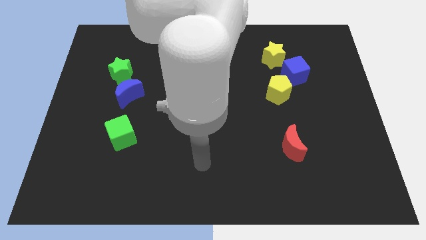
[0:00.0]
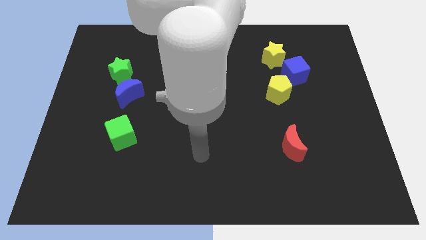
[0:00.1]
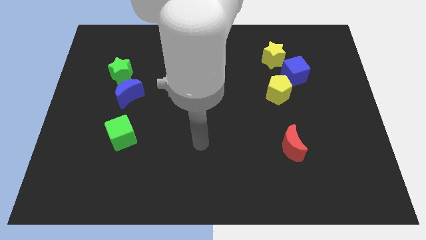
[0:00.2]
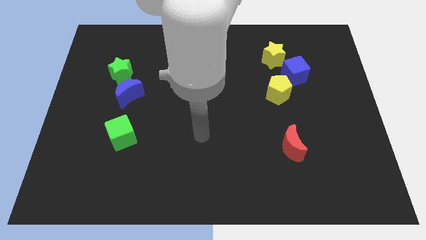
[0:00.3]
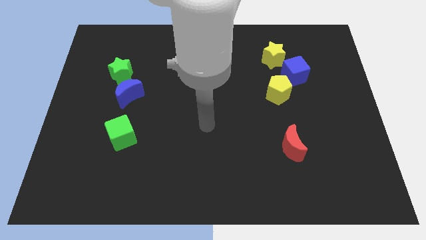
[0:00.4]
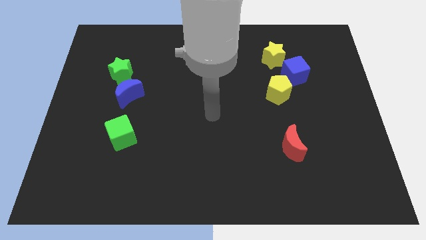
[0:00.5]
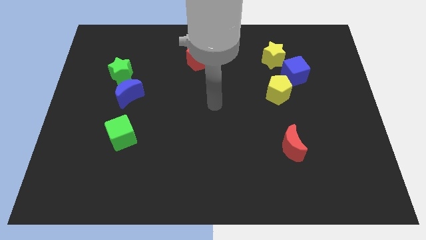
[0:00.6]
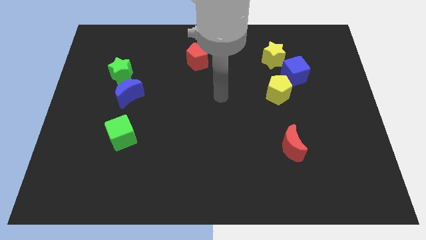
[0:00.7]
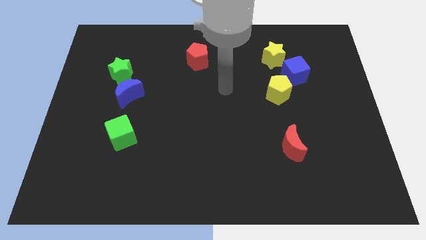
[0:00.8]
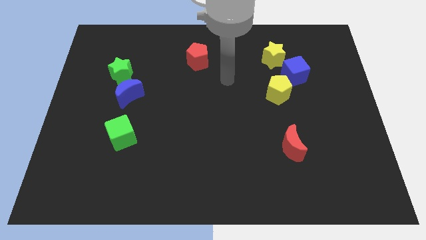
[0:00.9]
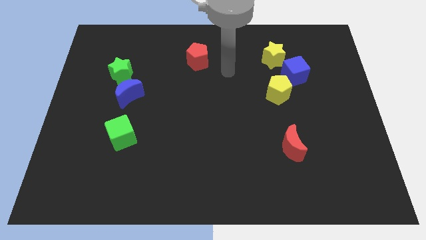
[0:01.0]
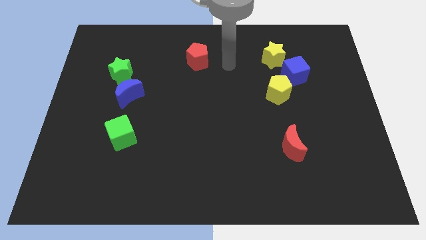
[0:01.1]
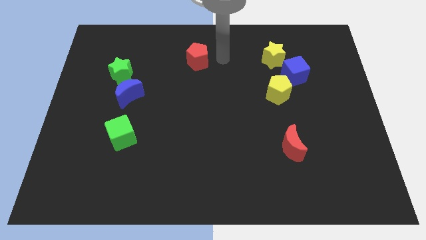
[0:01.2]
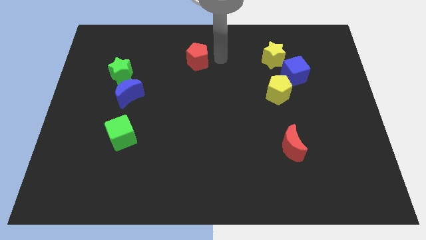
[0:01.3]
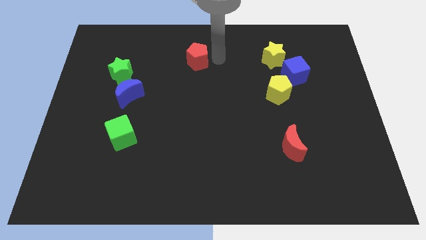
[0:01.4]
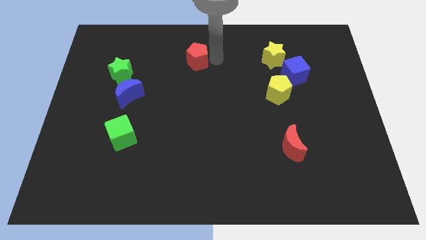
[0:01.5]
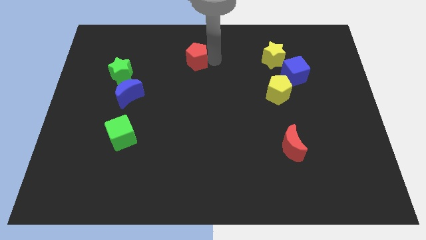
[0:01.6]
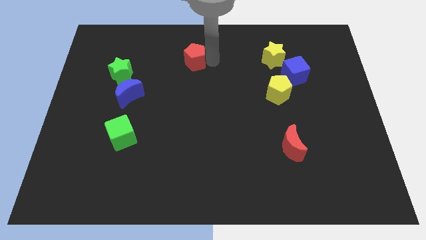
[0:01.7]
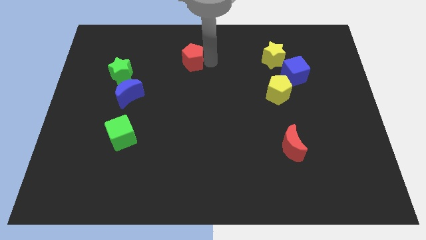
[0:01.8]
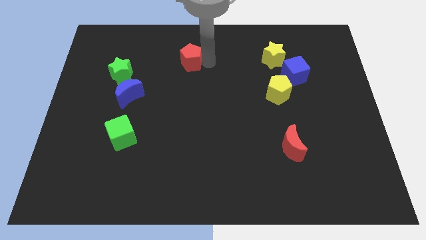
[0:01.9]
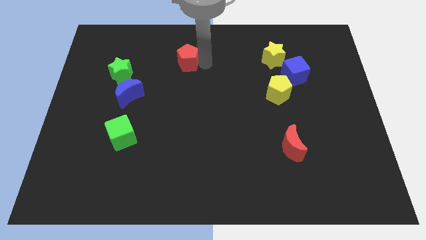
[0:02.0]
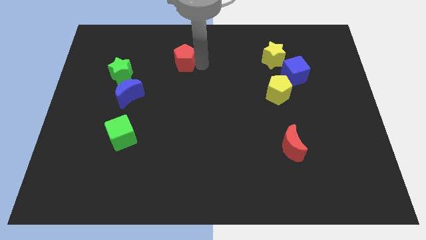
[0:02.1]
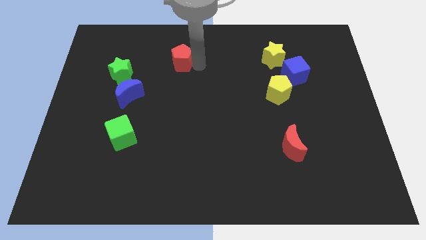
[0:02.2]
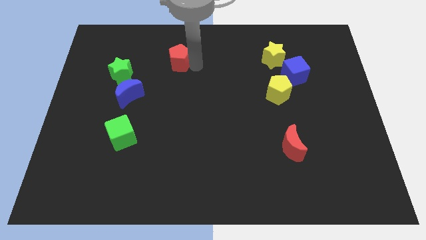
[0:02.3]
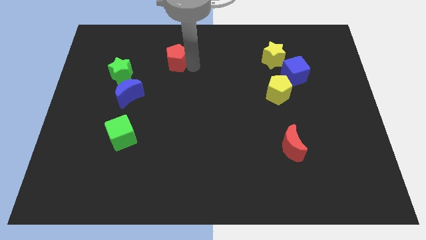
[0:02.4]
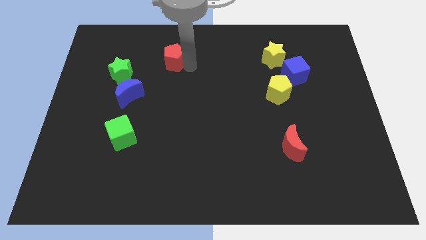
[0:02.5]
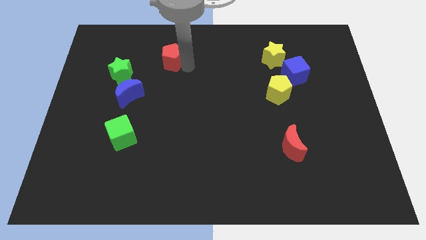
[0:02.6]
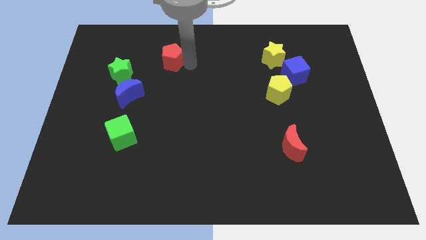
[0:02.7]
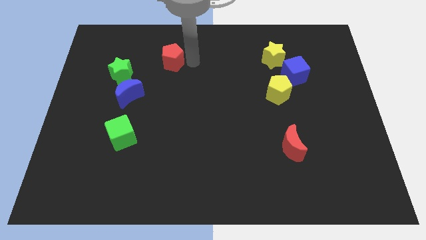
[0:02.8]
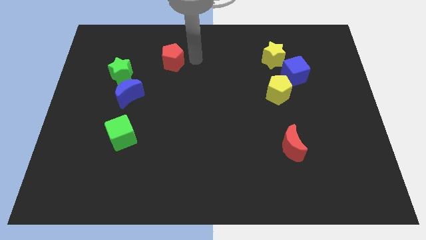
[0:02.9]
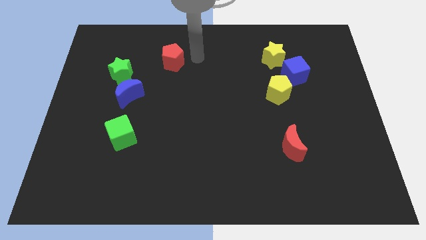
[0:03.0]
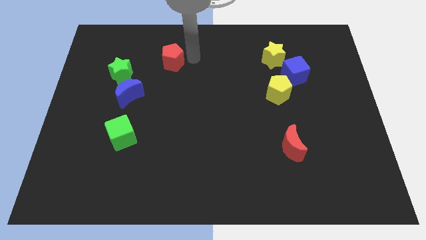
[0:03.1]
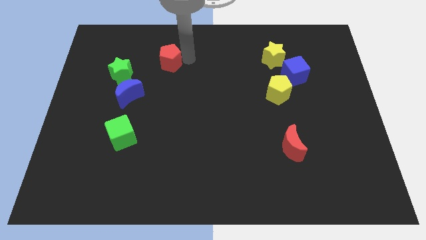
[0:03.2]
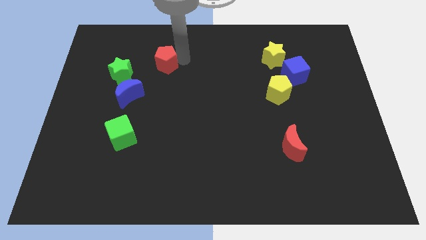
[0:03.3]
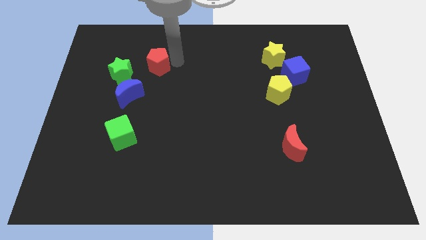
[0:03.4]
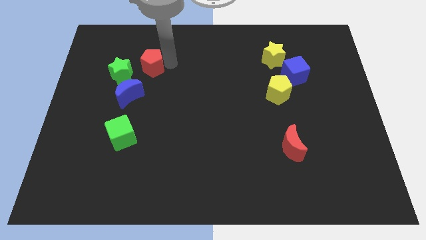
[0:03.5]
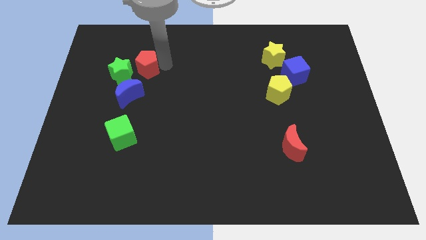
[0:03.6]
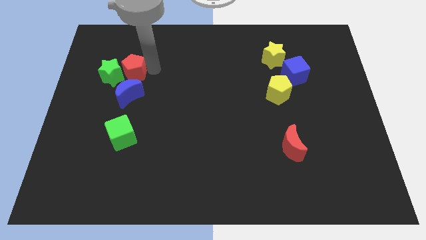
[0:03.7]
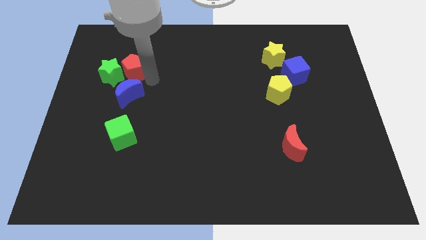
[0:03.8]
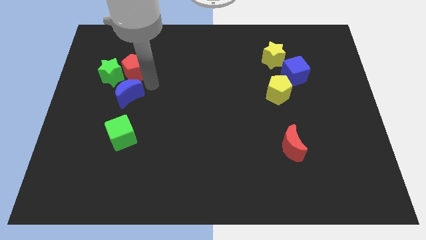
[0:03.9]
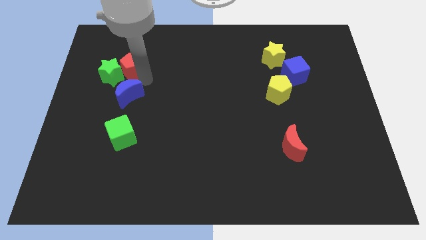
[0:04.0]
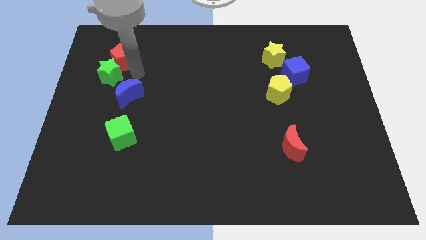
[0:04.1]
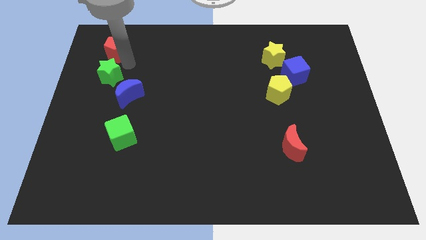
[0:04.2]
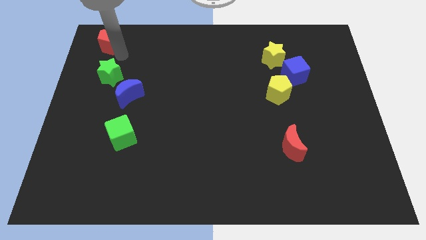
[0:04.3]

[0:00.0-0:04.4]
slide the red pentagon to the top left of the board

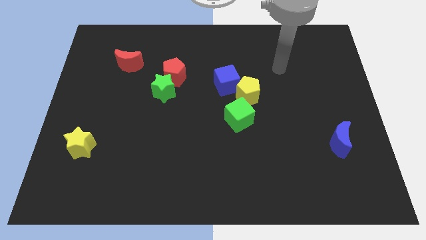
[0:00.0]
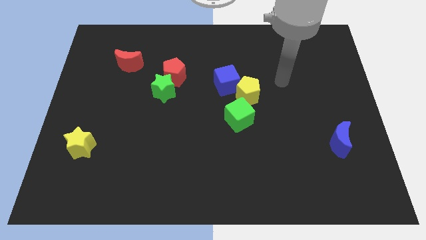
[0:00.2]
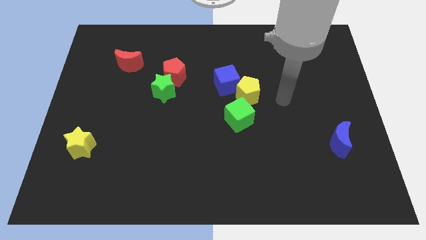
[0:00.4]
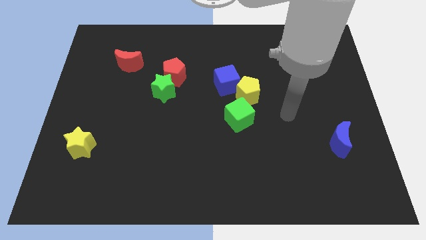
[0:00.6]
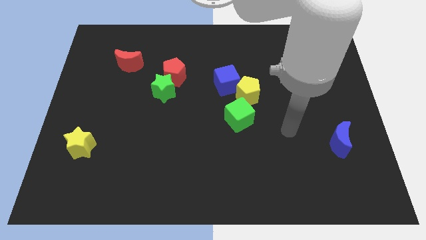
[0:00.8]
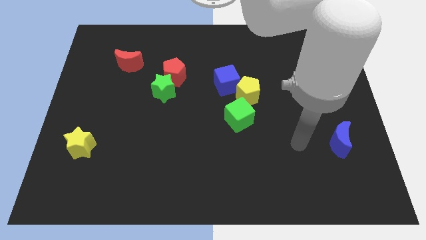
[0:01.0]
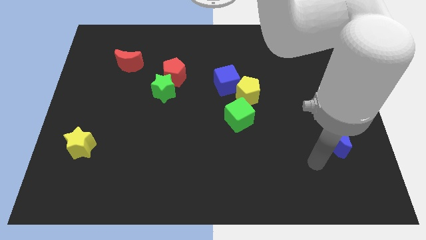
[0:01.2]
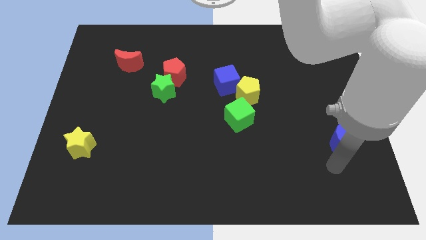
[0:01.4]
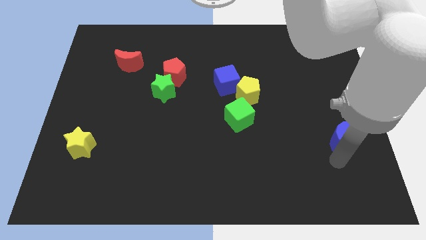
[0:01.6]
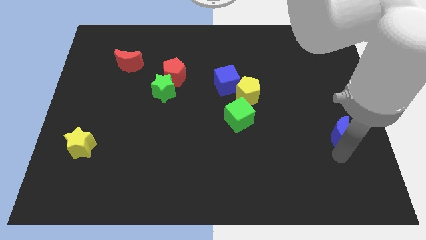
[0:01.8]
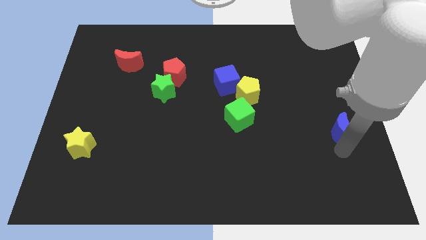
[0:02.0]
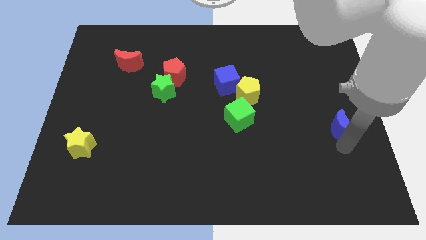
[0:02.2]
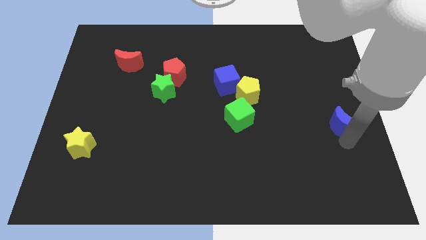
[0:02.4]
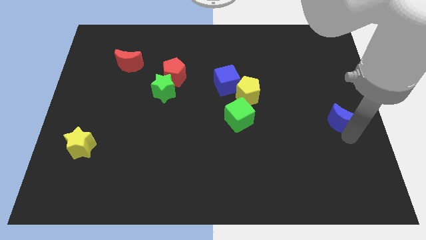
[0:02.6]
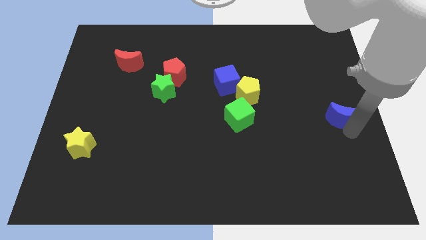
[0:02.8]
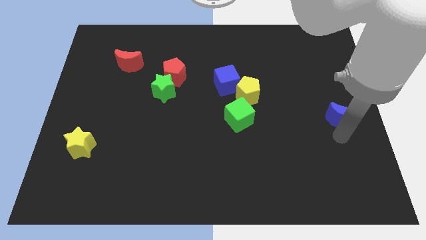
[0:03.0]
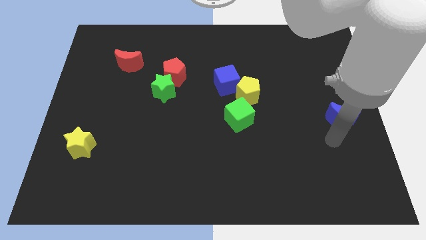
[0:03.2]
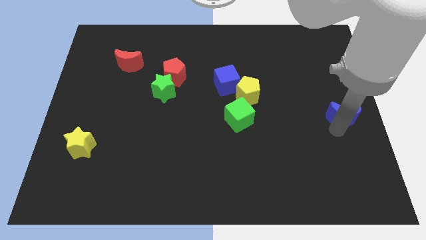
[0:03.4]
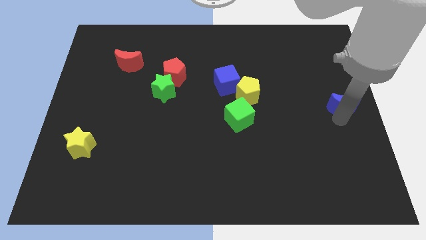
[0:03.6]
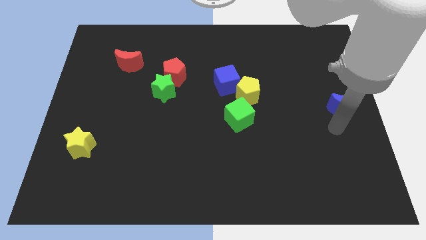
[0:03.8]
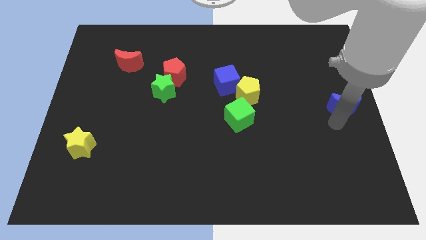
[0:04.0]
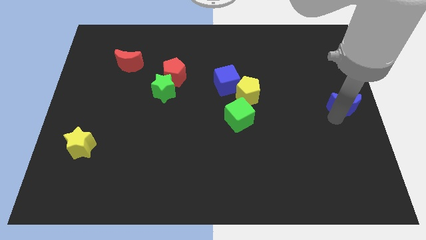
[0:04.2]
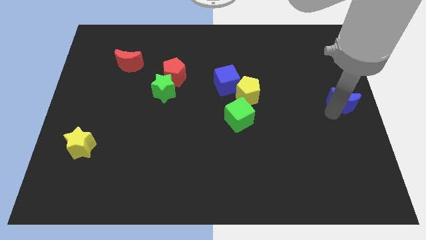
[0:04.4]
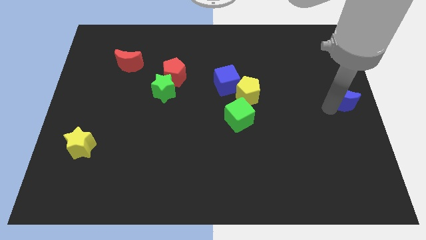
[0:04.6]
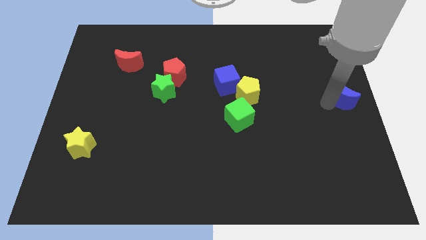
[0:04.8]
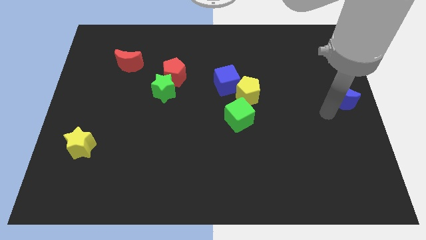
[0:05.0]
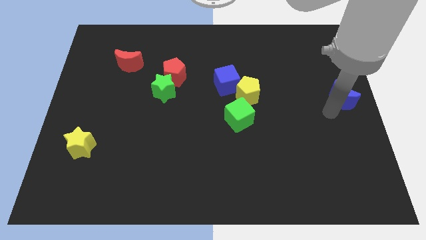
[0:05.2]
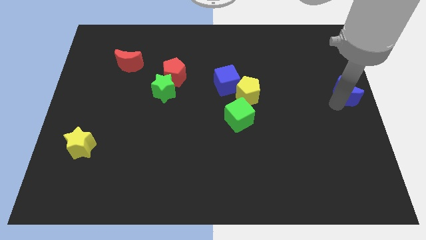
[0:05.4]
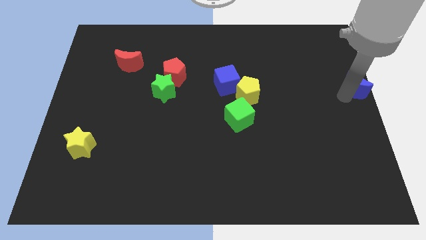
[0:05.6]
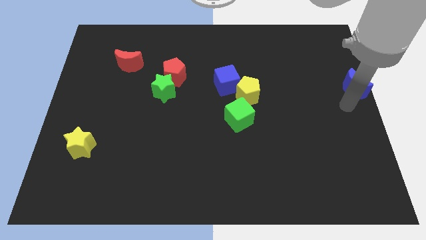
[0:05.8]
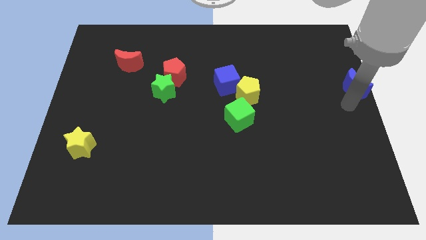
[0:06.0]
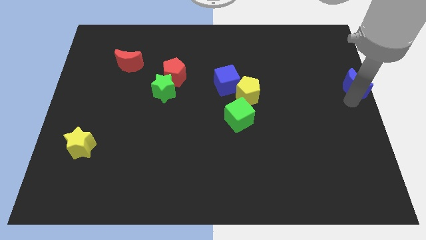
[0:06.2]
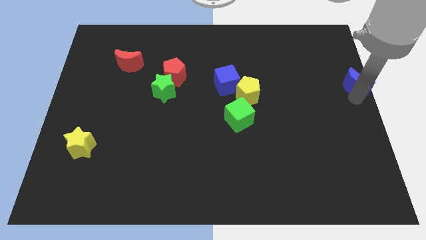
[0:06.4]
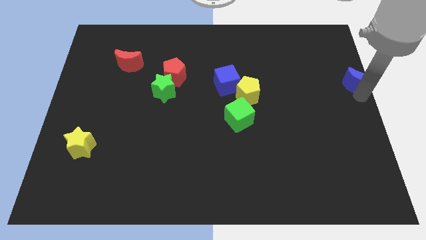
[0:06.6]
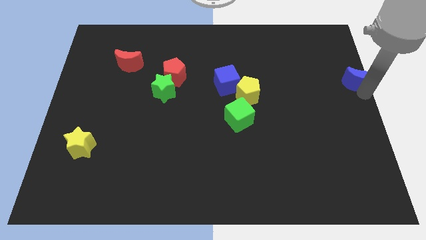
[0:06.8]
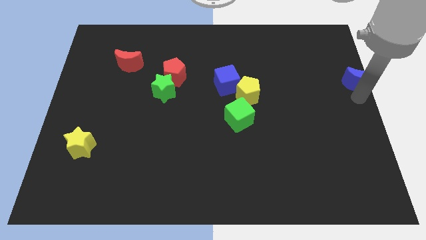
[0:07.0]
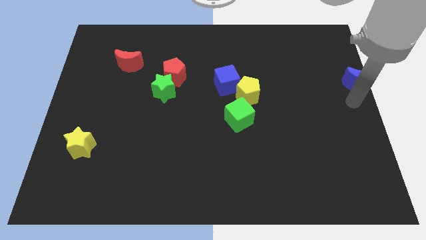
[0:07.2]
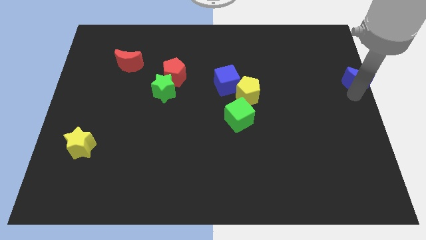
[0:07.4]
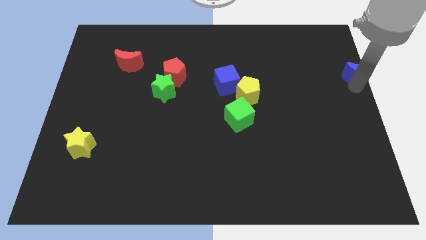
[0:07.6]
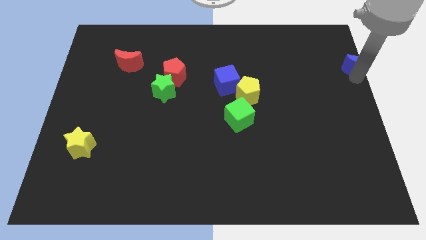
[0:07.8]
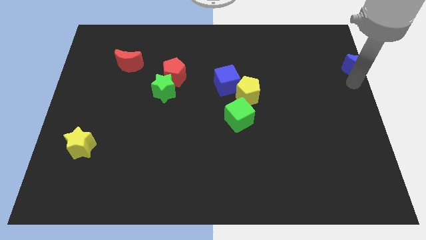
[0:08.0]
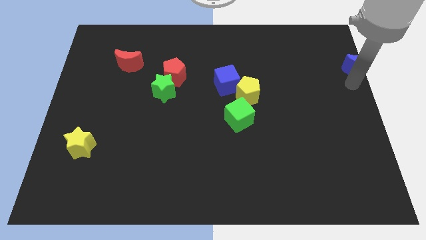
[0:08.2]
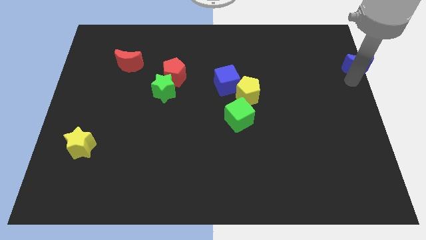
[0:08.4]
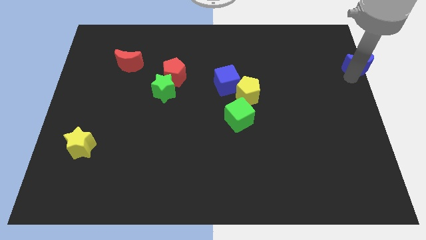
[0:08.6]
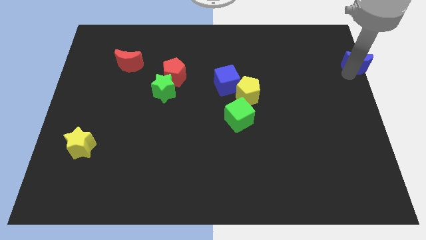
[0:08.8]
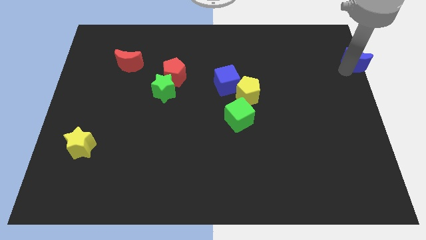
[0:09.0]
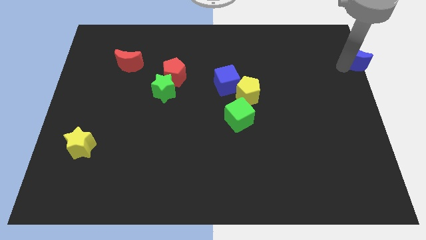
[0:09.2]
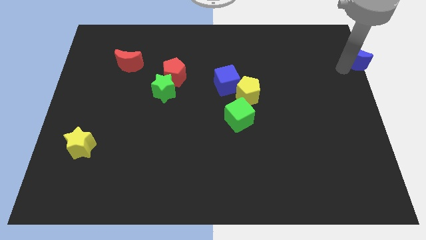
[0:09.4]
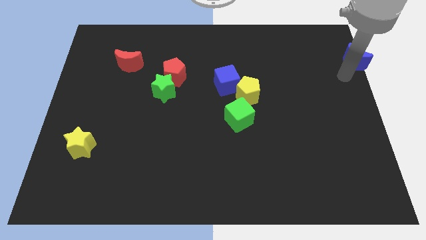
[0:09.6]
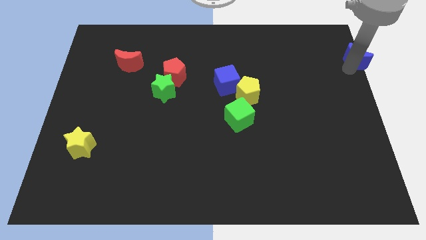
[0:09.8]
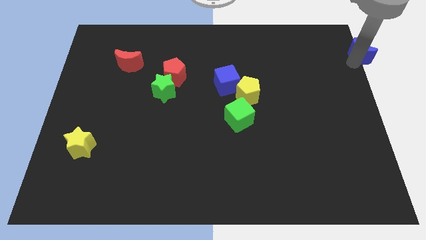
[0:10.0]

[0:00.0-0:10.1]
slide the blue moon to the top right of the board
